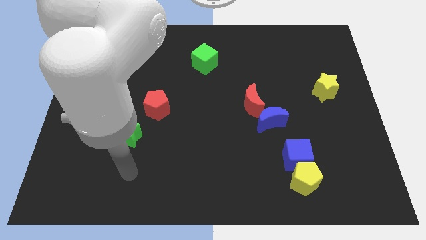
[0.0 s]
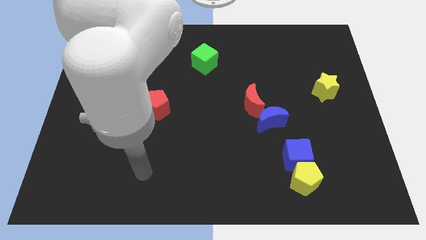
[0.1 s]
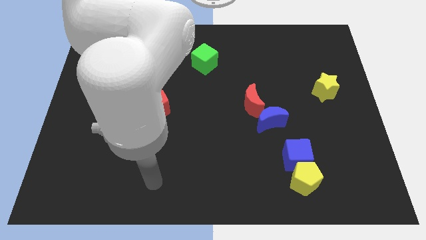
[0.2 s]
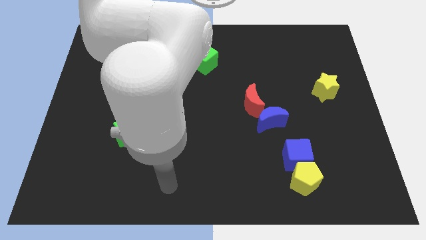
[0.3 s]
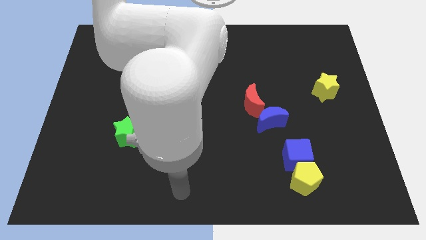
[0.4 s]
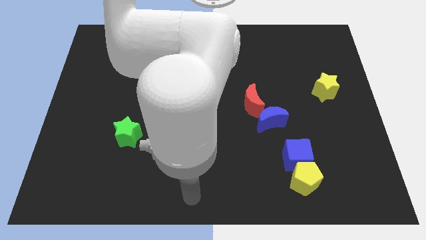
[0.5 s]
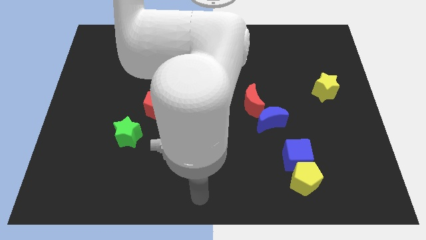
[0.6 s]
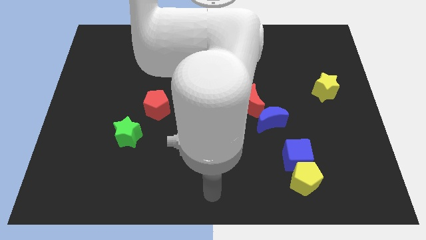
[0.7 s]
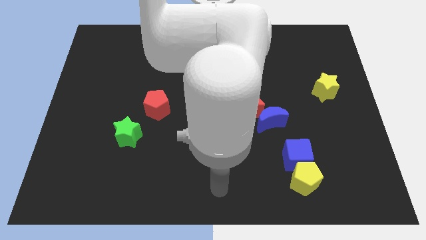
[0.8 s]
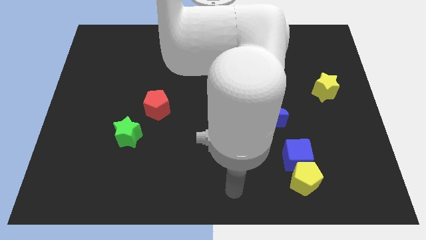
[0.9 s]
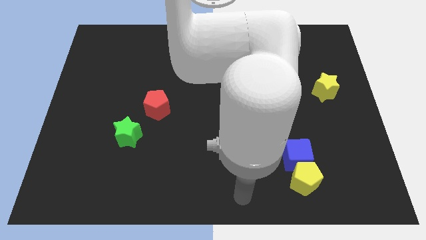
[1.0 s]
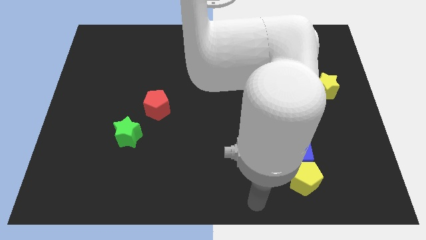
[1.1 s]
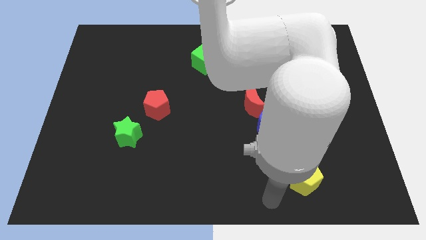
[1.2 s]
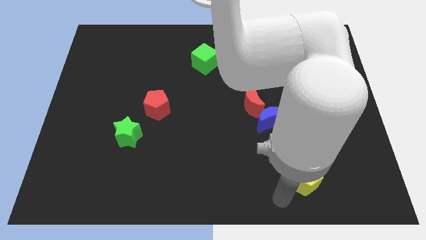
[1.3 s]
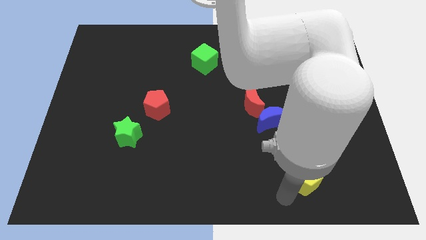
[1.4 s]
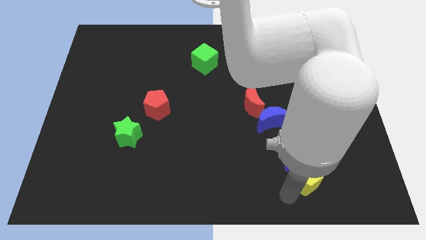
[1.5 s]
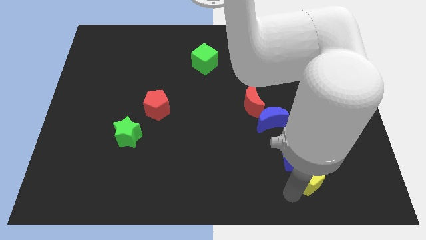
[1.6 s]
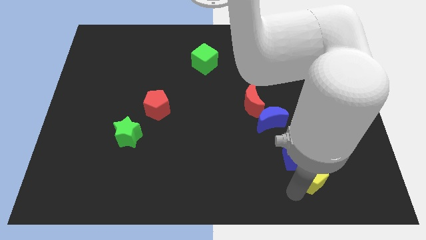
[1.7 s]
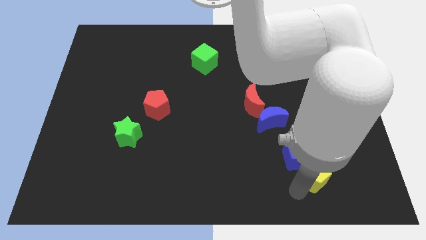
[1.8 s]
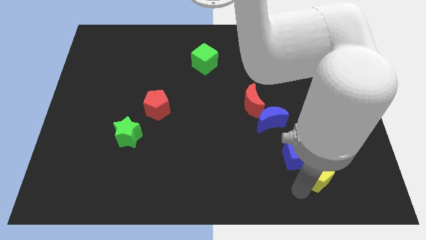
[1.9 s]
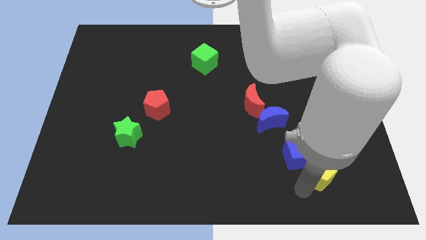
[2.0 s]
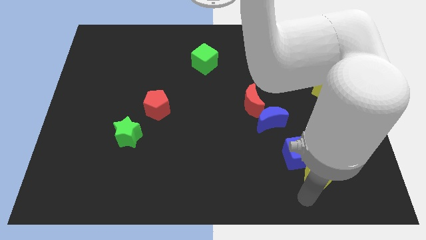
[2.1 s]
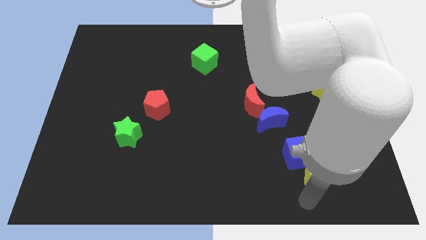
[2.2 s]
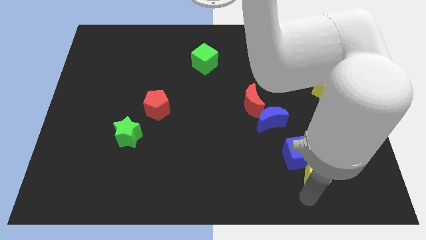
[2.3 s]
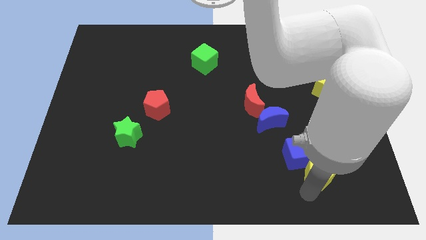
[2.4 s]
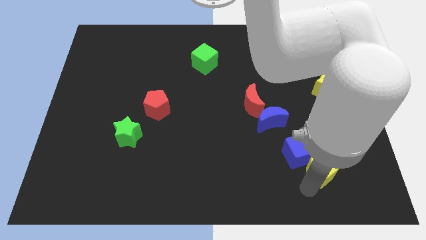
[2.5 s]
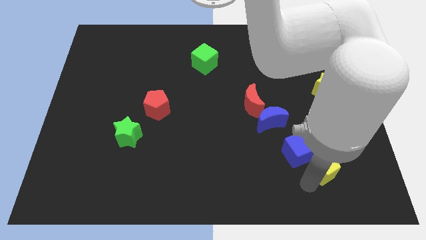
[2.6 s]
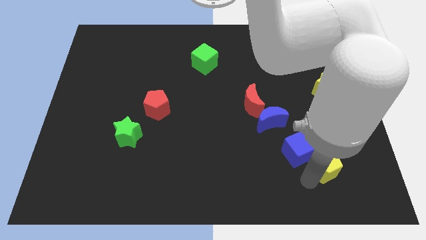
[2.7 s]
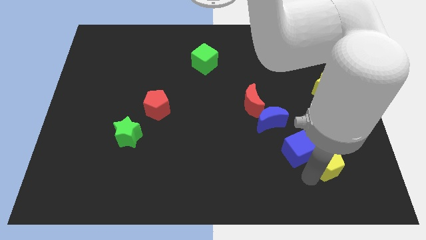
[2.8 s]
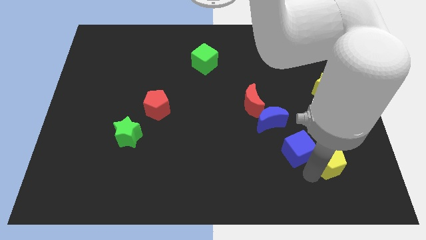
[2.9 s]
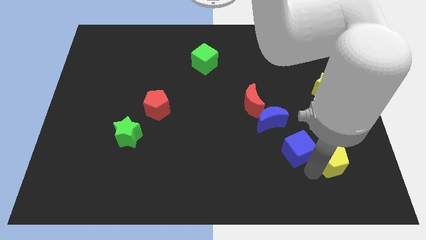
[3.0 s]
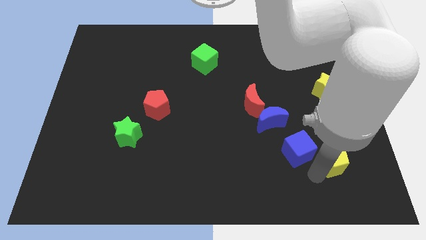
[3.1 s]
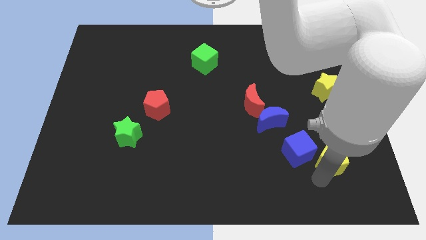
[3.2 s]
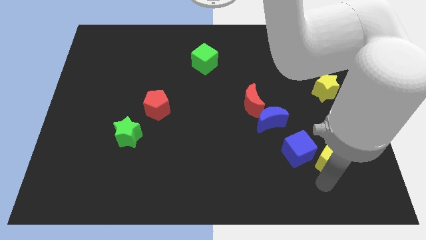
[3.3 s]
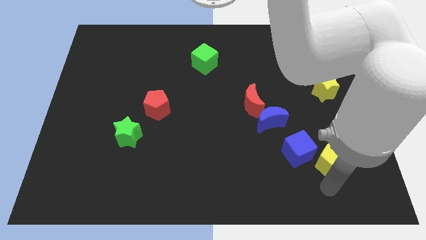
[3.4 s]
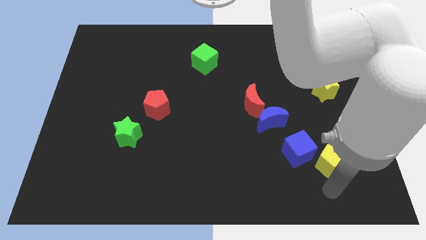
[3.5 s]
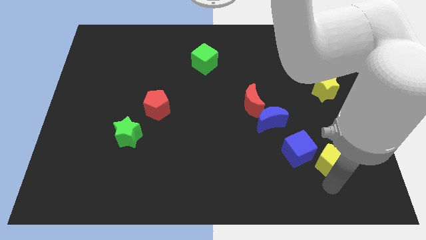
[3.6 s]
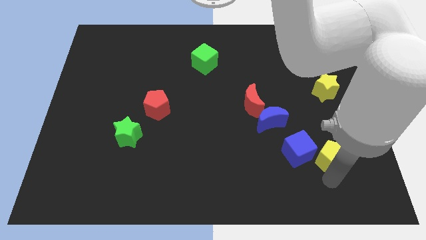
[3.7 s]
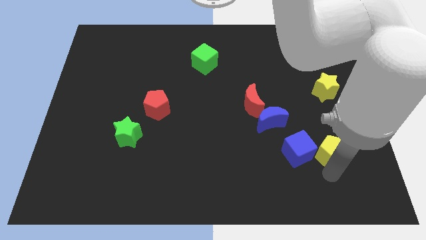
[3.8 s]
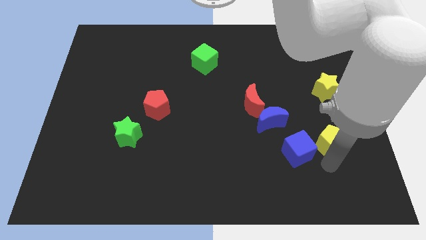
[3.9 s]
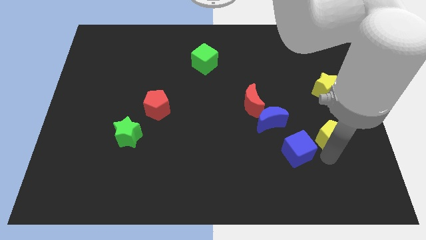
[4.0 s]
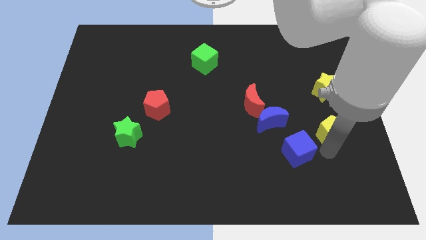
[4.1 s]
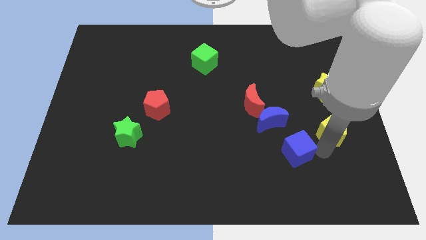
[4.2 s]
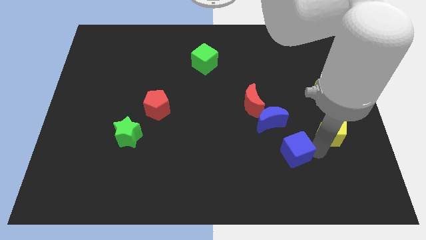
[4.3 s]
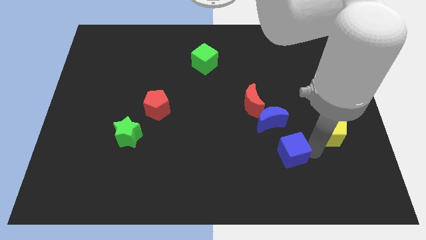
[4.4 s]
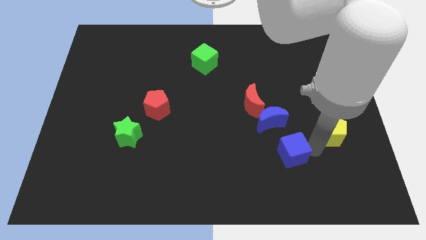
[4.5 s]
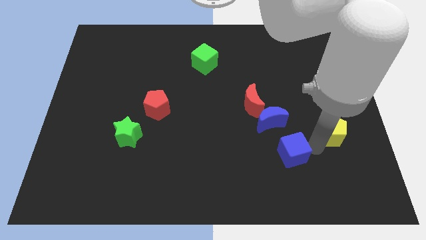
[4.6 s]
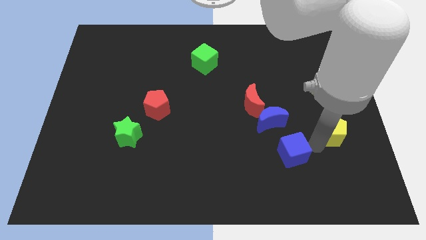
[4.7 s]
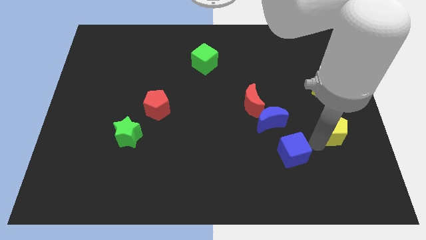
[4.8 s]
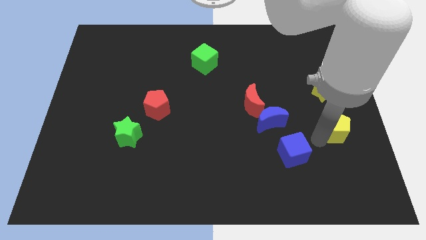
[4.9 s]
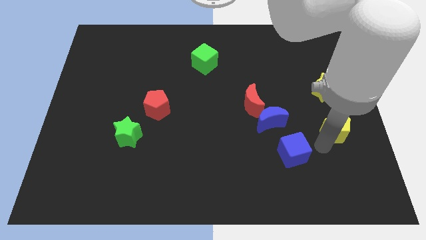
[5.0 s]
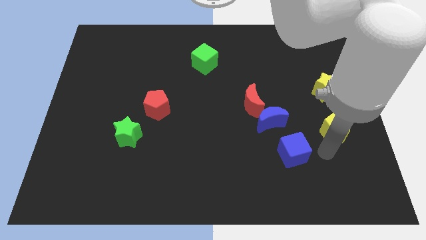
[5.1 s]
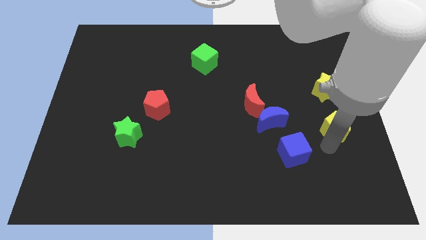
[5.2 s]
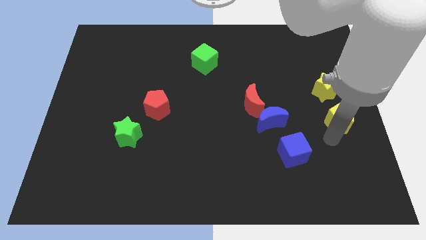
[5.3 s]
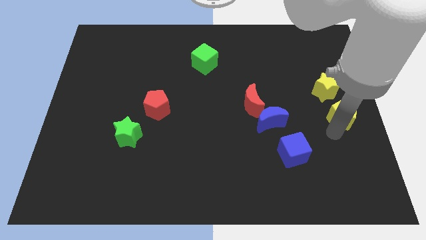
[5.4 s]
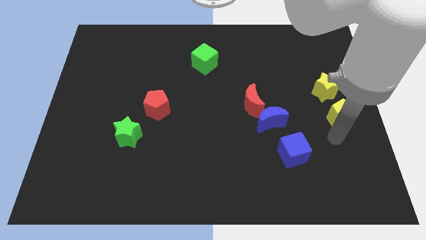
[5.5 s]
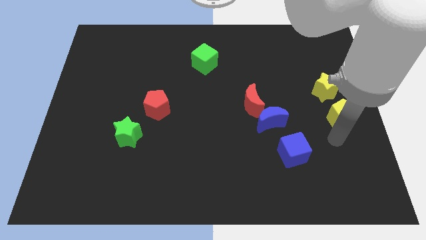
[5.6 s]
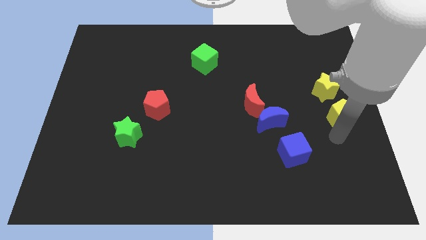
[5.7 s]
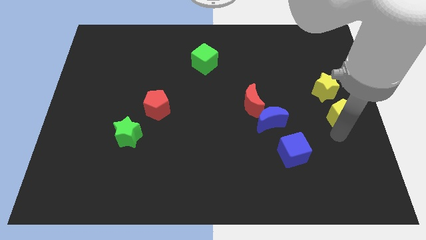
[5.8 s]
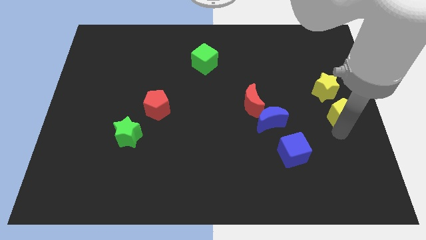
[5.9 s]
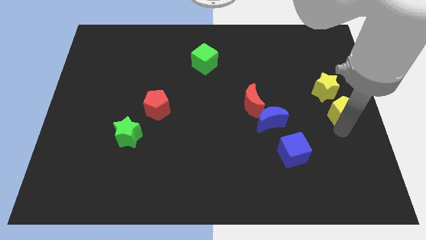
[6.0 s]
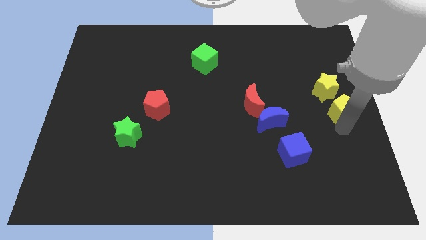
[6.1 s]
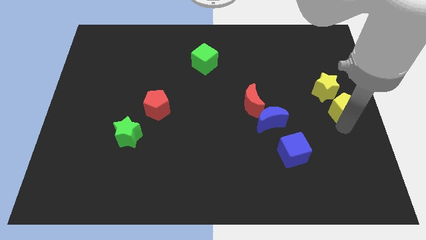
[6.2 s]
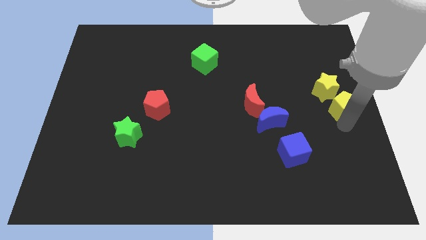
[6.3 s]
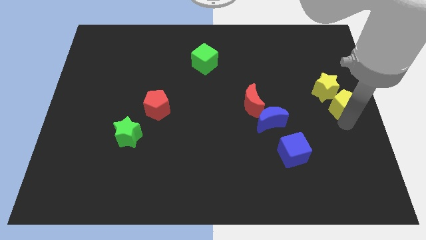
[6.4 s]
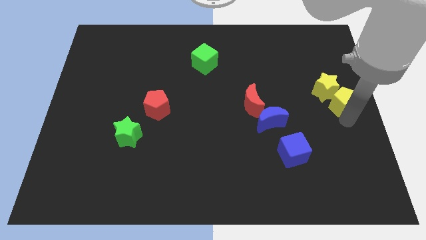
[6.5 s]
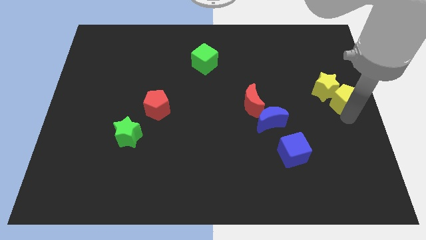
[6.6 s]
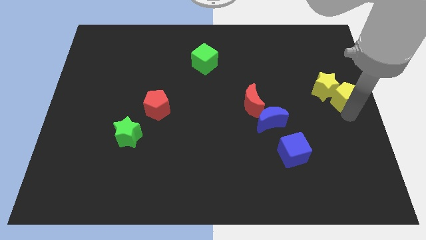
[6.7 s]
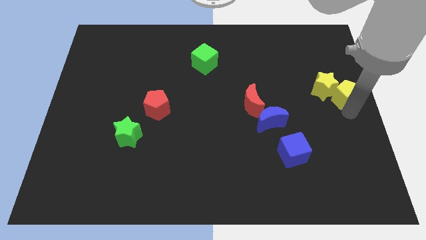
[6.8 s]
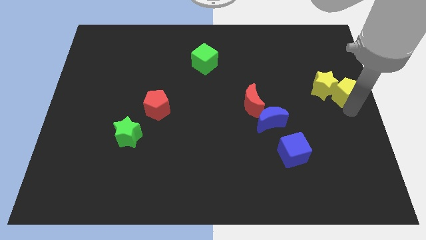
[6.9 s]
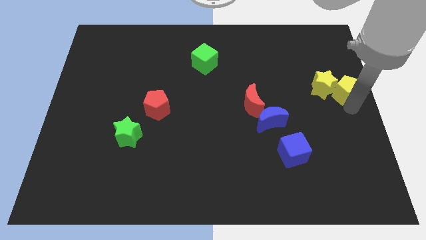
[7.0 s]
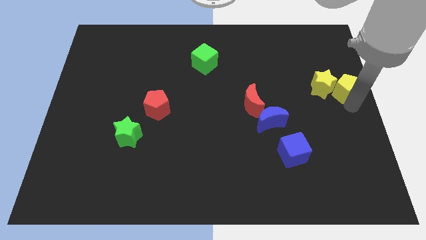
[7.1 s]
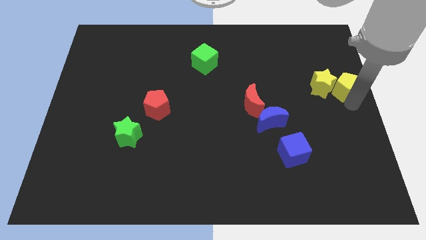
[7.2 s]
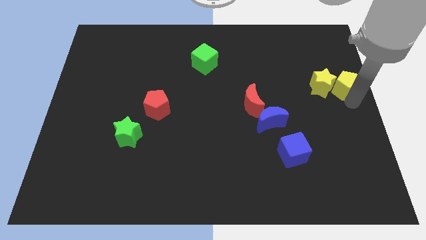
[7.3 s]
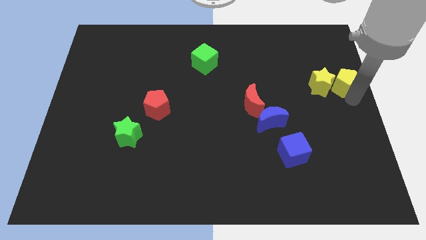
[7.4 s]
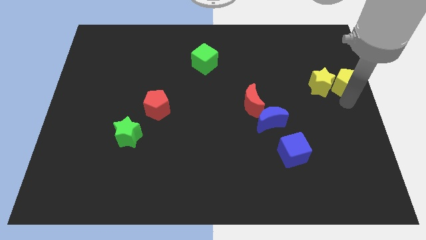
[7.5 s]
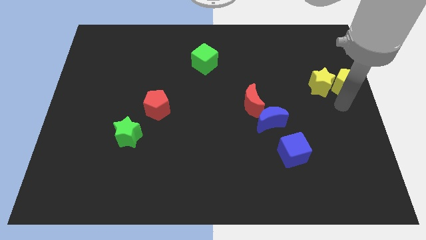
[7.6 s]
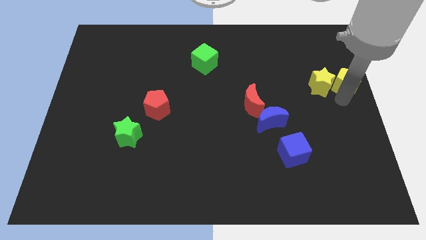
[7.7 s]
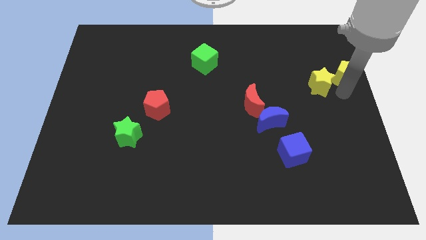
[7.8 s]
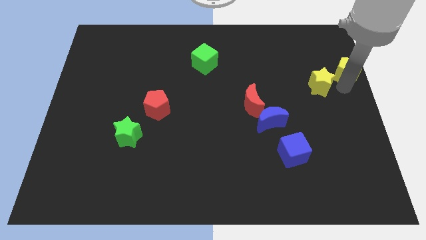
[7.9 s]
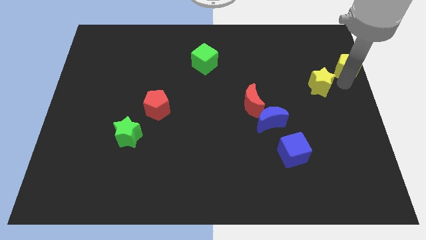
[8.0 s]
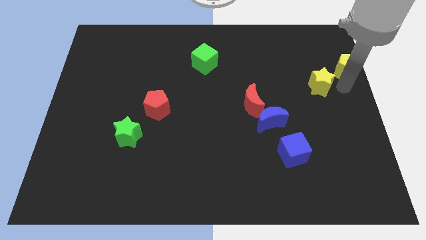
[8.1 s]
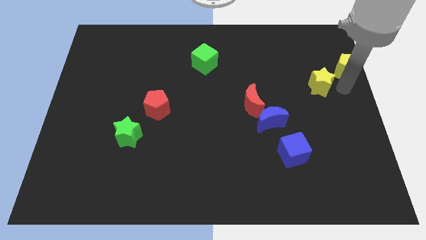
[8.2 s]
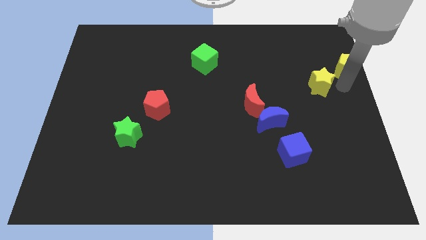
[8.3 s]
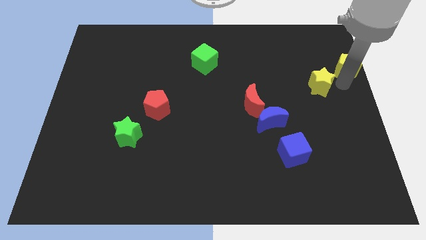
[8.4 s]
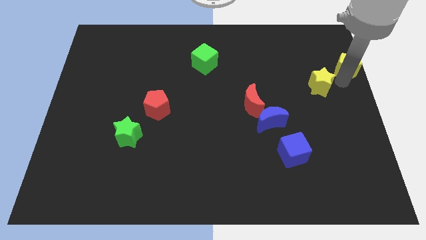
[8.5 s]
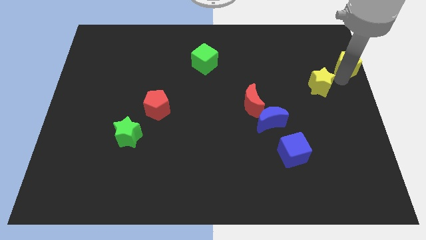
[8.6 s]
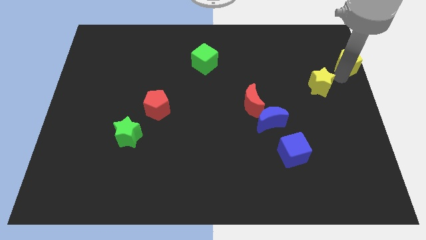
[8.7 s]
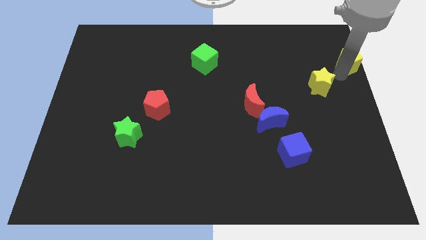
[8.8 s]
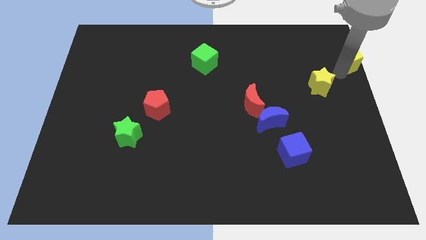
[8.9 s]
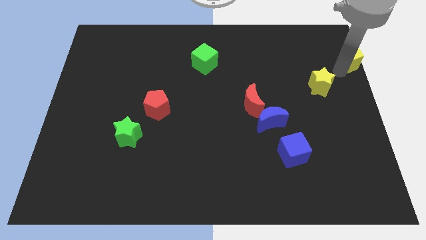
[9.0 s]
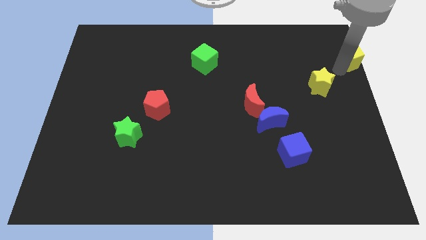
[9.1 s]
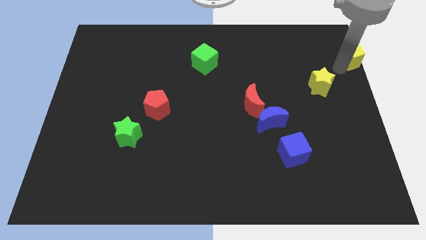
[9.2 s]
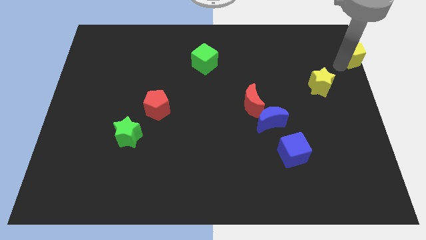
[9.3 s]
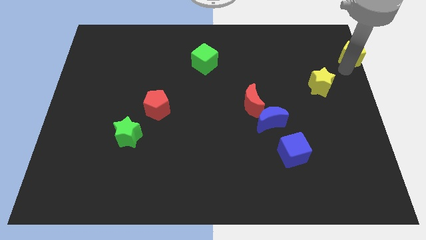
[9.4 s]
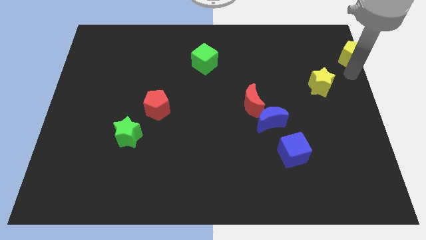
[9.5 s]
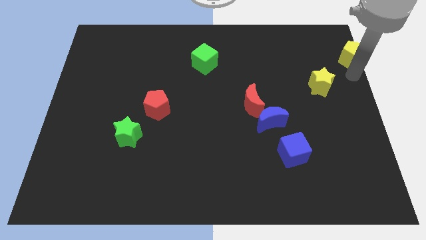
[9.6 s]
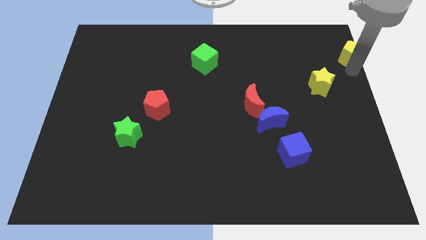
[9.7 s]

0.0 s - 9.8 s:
push the yellow pentagon to the top right
